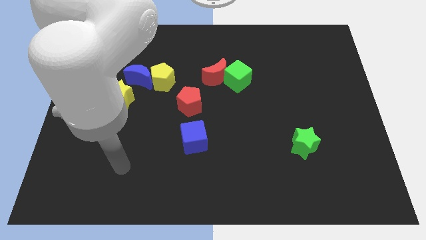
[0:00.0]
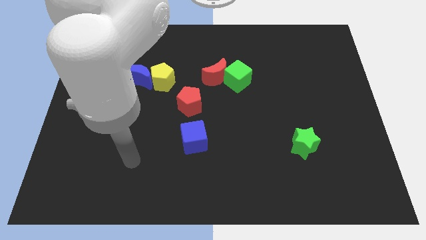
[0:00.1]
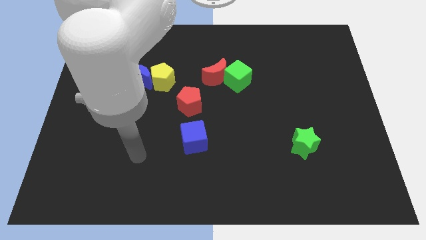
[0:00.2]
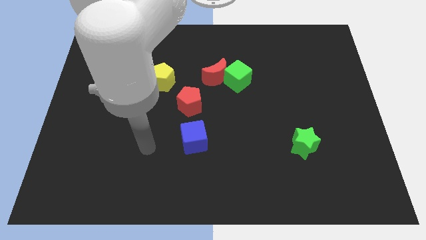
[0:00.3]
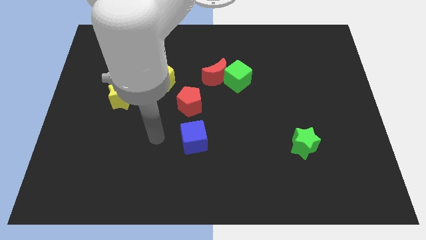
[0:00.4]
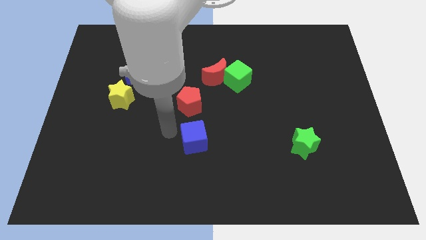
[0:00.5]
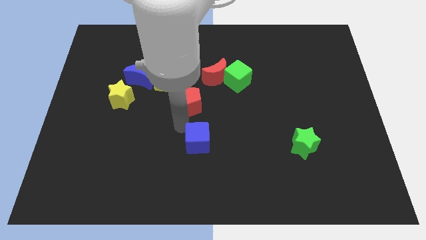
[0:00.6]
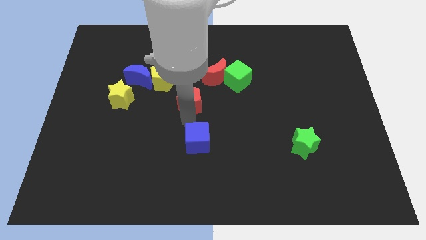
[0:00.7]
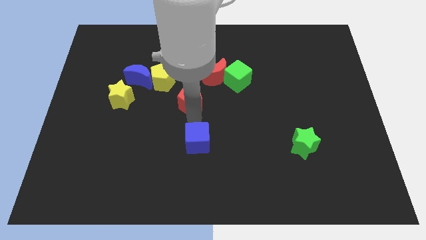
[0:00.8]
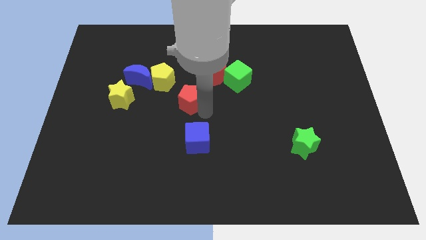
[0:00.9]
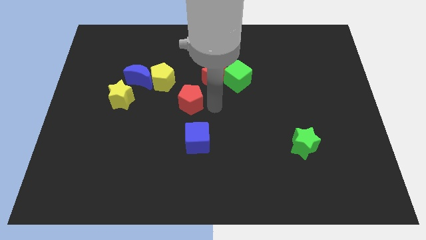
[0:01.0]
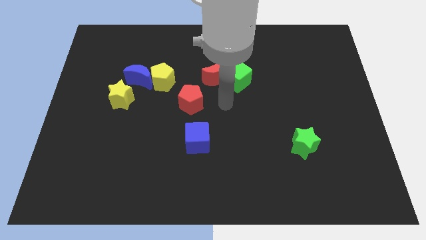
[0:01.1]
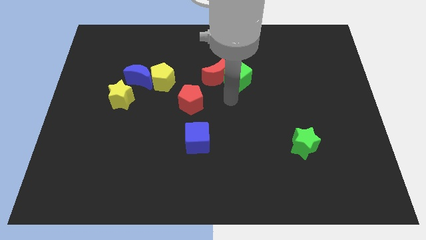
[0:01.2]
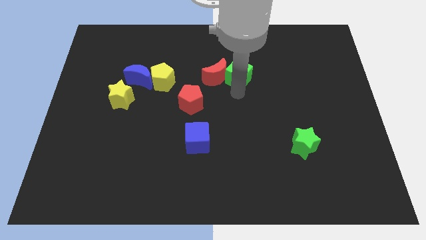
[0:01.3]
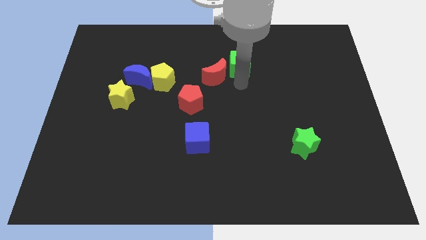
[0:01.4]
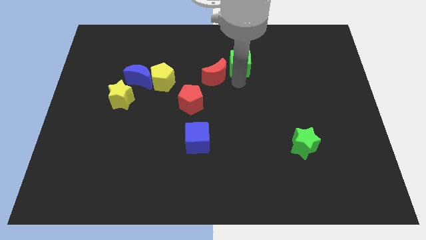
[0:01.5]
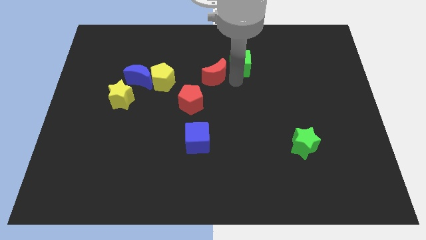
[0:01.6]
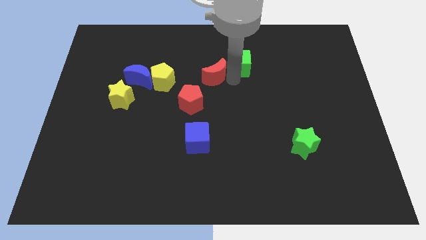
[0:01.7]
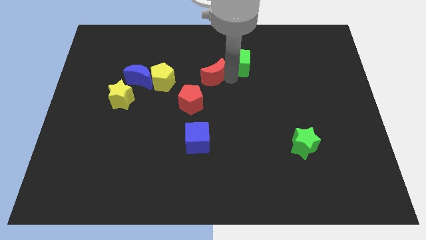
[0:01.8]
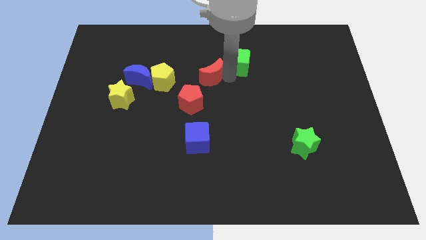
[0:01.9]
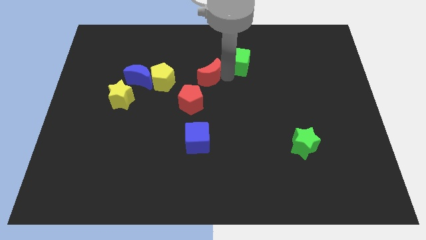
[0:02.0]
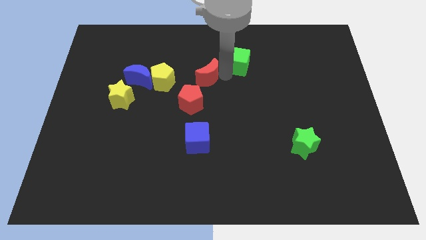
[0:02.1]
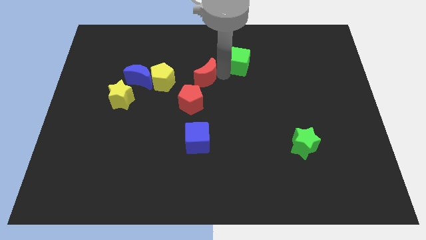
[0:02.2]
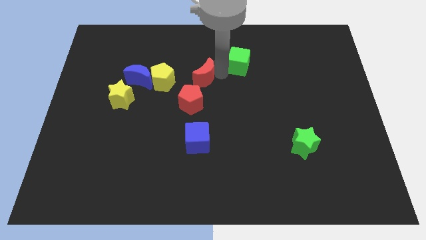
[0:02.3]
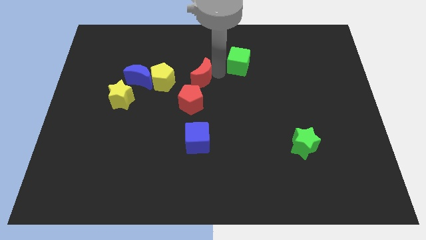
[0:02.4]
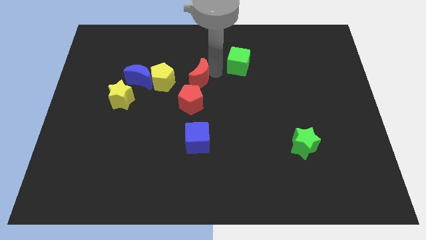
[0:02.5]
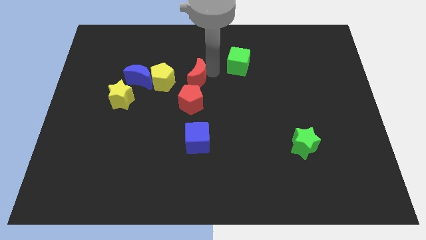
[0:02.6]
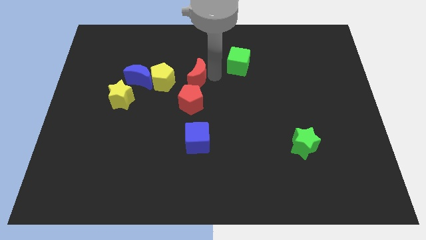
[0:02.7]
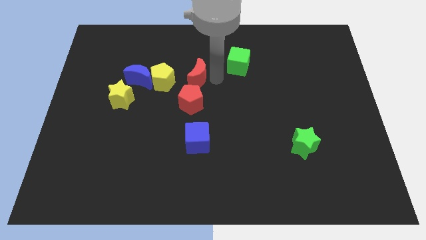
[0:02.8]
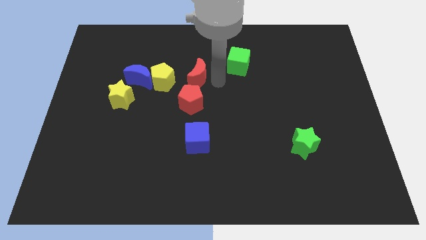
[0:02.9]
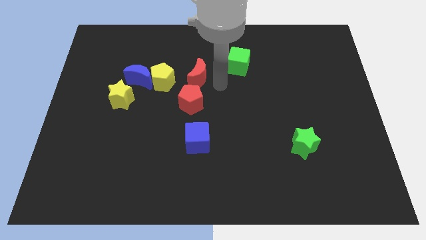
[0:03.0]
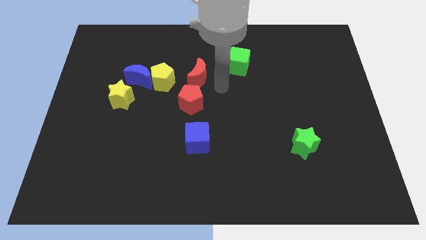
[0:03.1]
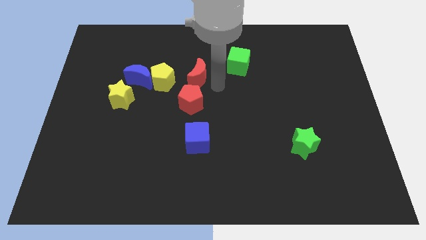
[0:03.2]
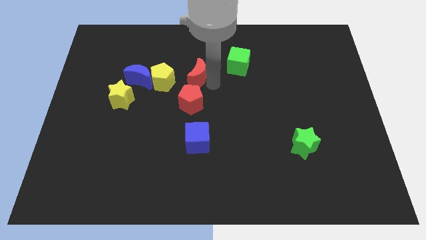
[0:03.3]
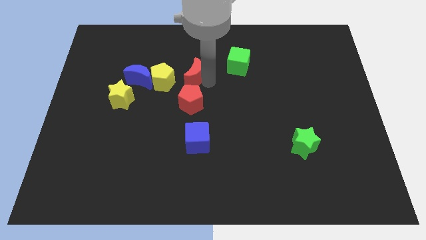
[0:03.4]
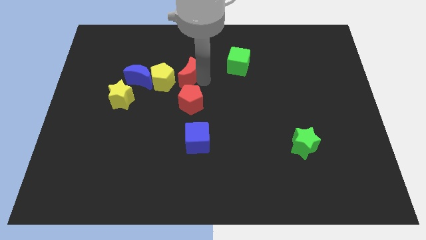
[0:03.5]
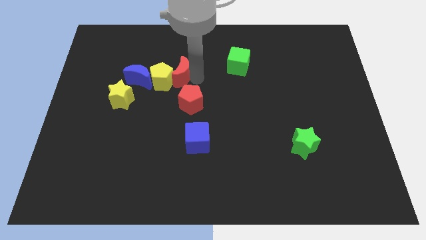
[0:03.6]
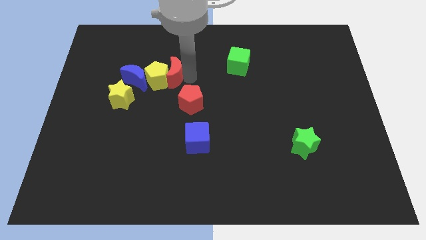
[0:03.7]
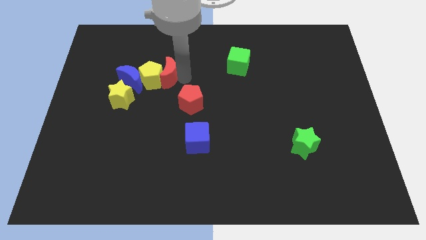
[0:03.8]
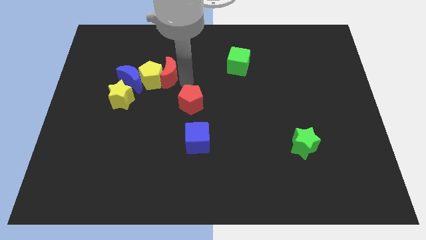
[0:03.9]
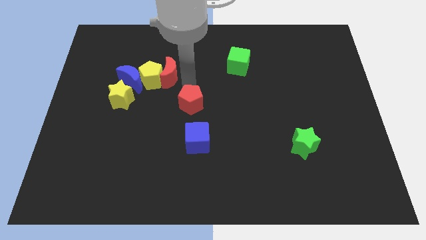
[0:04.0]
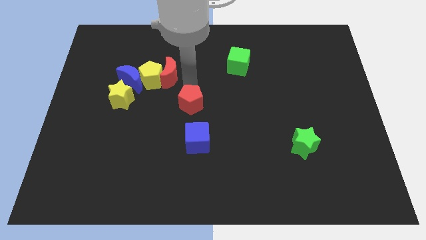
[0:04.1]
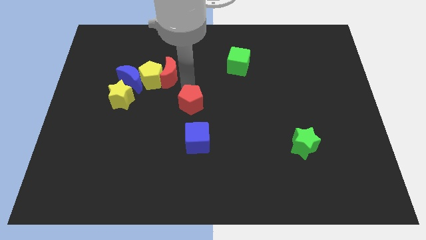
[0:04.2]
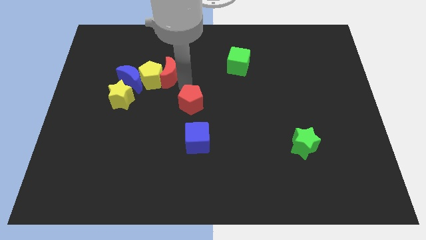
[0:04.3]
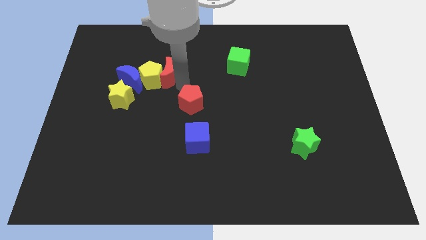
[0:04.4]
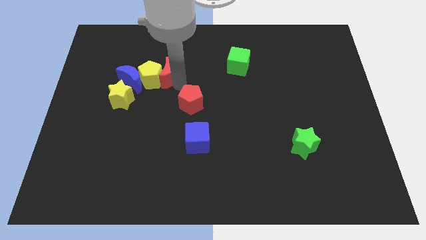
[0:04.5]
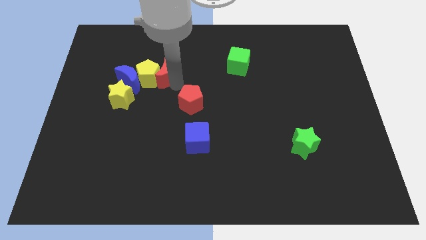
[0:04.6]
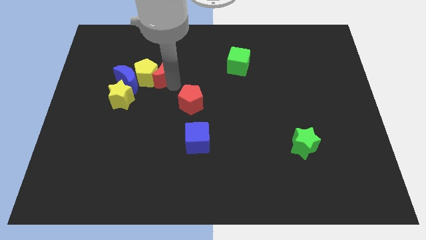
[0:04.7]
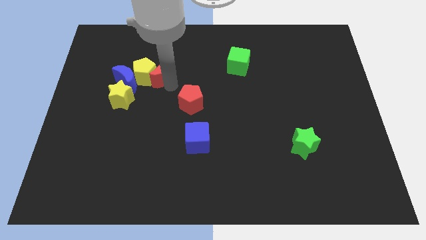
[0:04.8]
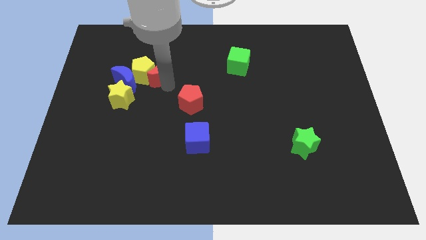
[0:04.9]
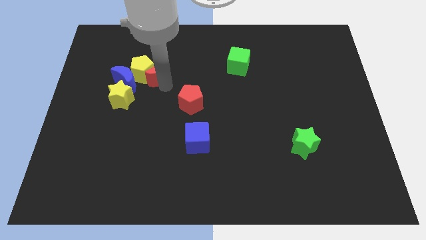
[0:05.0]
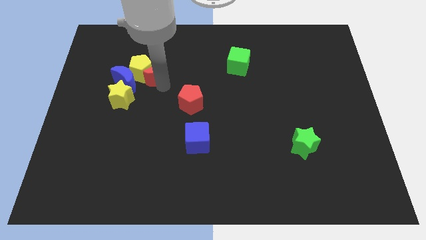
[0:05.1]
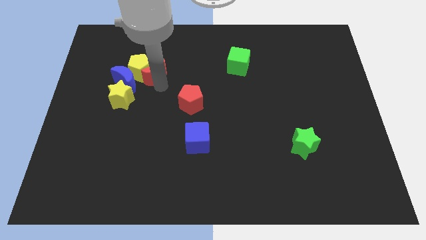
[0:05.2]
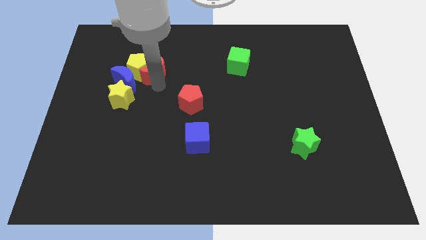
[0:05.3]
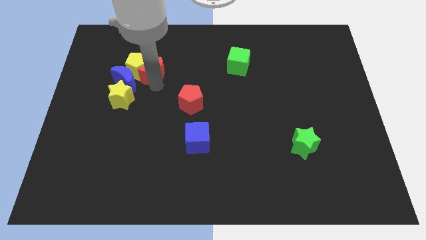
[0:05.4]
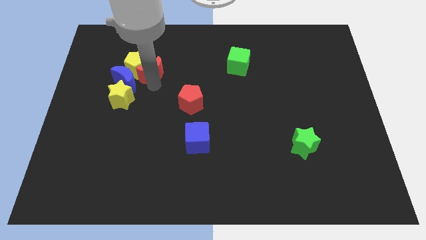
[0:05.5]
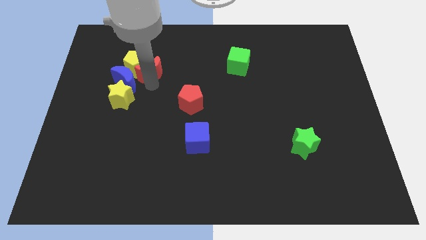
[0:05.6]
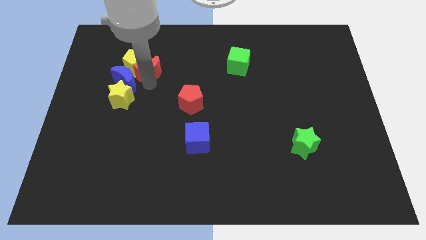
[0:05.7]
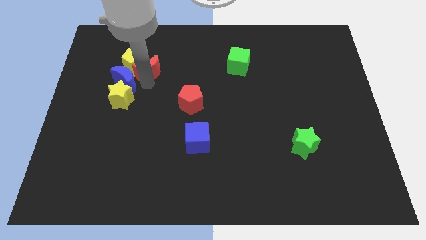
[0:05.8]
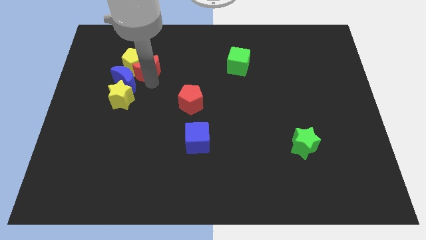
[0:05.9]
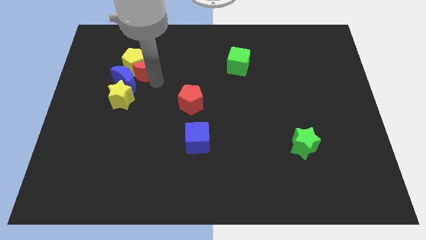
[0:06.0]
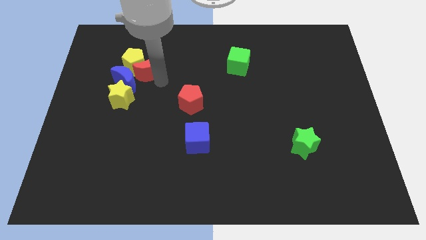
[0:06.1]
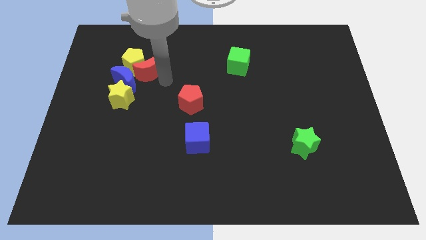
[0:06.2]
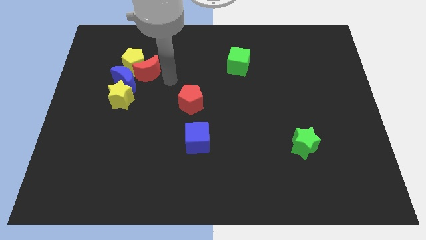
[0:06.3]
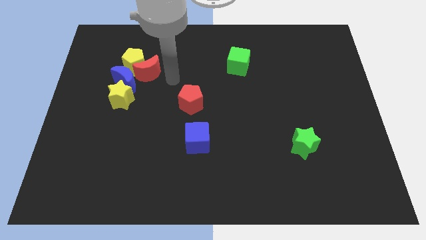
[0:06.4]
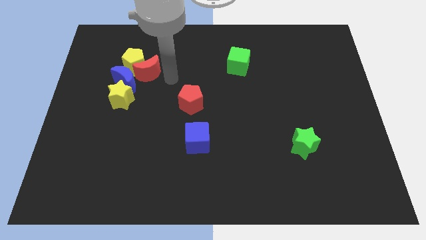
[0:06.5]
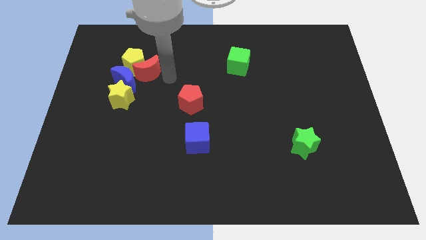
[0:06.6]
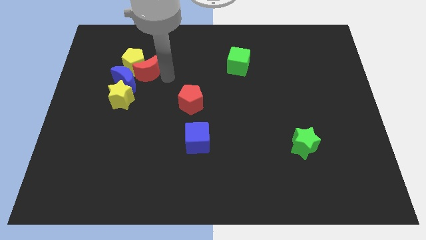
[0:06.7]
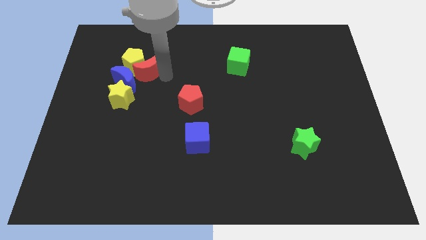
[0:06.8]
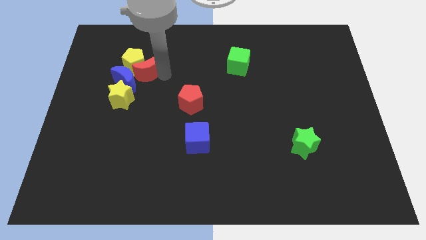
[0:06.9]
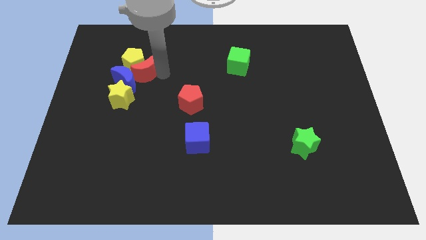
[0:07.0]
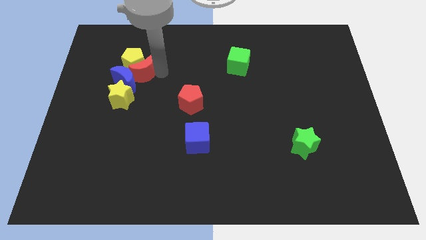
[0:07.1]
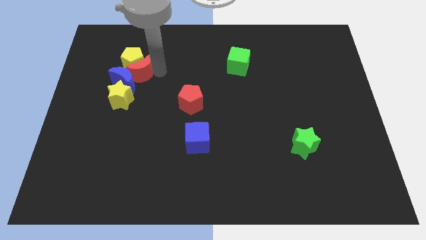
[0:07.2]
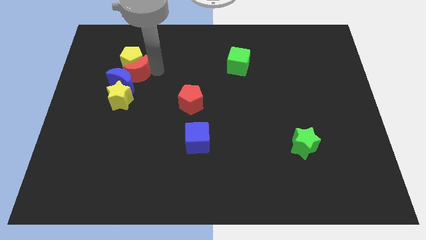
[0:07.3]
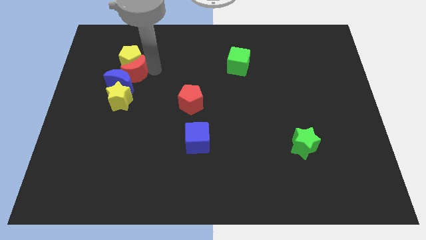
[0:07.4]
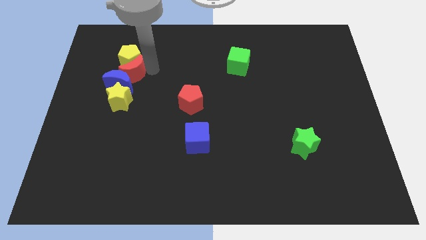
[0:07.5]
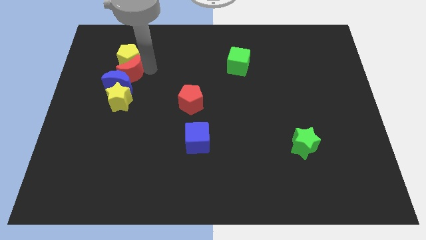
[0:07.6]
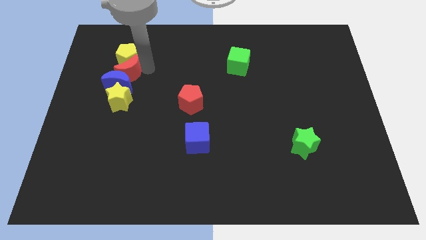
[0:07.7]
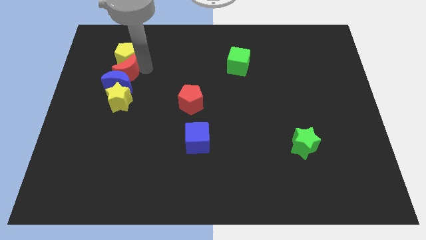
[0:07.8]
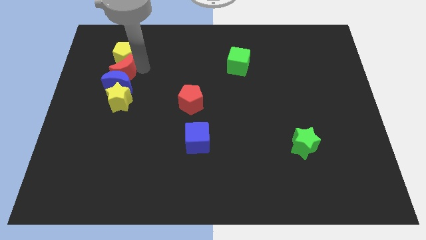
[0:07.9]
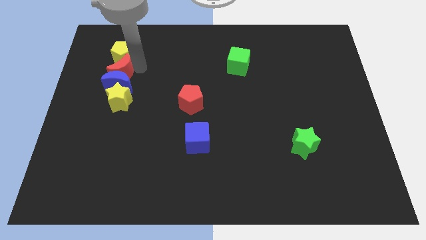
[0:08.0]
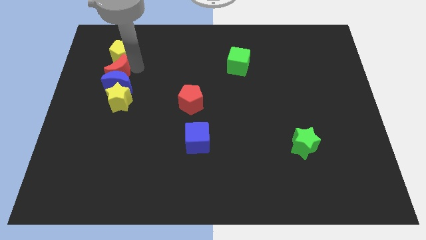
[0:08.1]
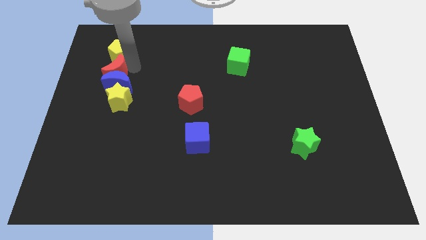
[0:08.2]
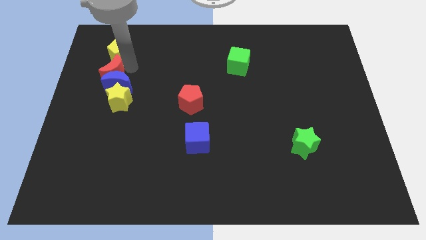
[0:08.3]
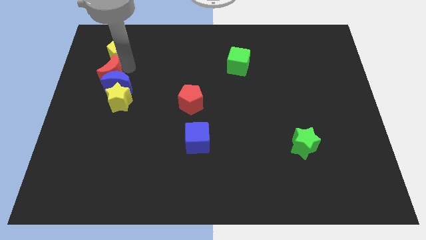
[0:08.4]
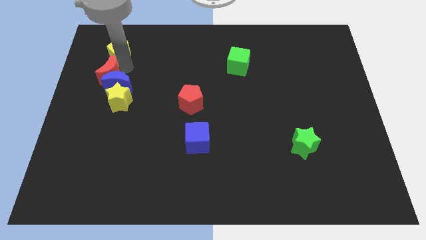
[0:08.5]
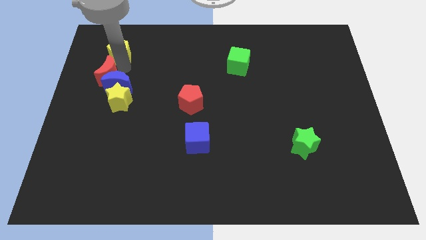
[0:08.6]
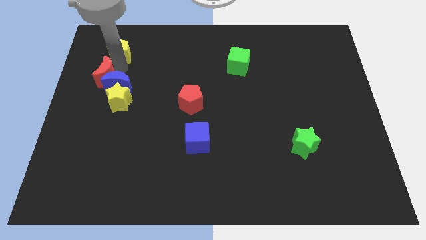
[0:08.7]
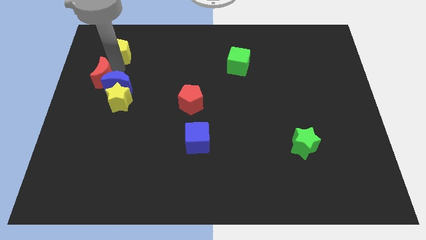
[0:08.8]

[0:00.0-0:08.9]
move the red moon to the center left
